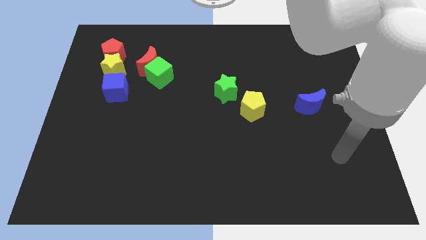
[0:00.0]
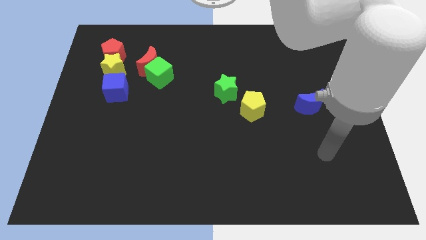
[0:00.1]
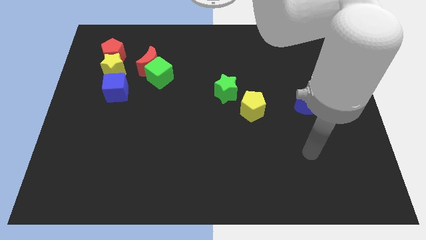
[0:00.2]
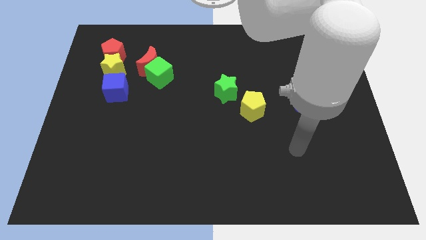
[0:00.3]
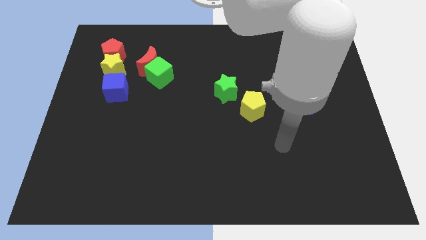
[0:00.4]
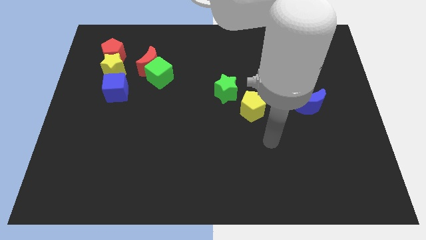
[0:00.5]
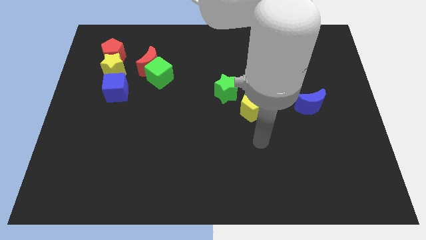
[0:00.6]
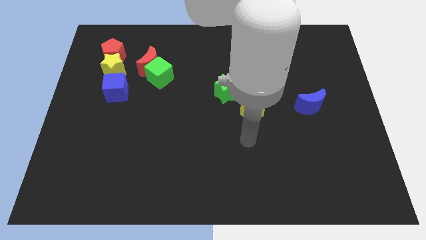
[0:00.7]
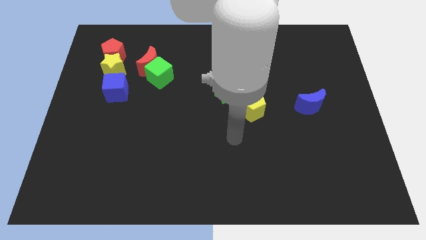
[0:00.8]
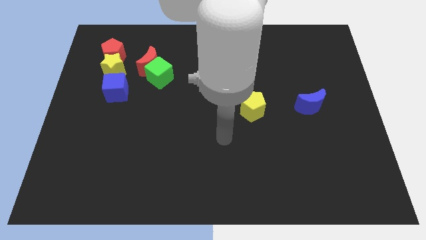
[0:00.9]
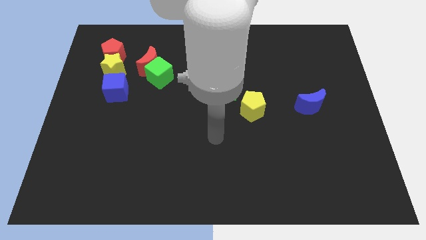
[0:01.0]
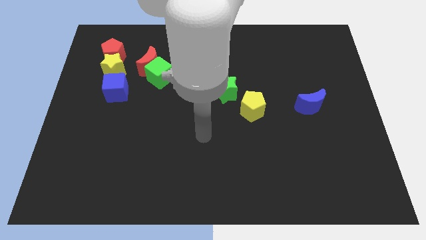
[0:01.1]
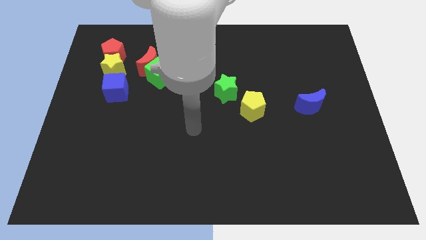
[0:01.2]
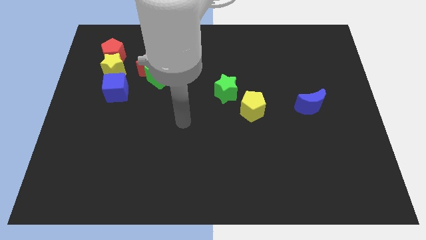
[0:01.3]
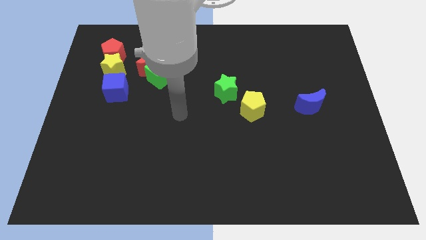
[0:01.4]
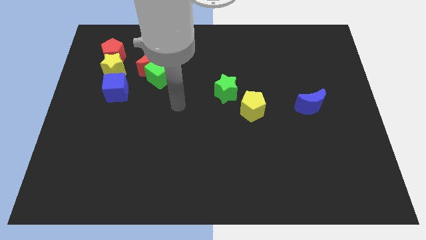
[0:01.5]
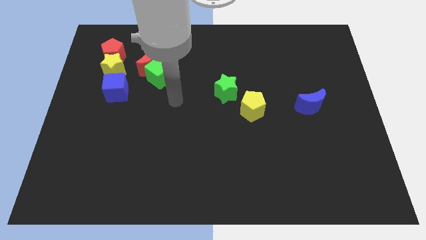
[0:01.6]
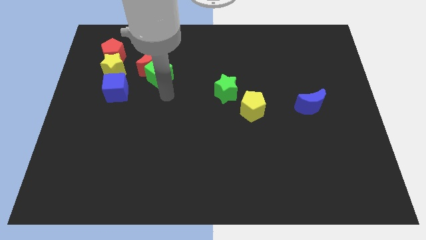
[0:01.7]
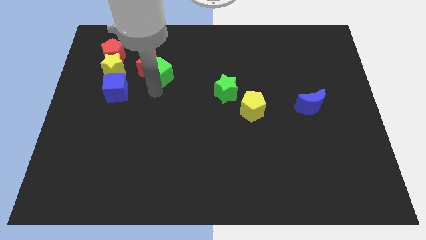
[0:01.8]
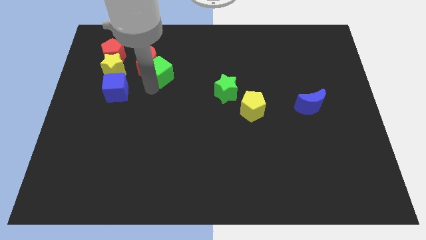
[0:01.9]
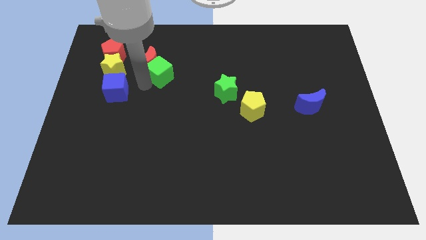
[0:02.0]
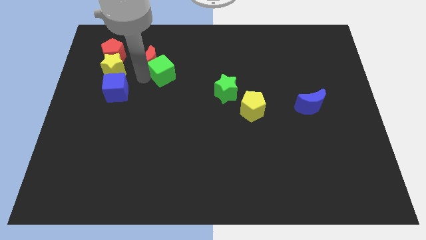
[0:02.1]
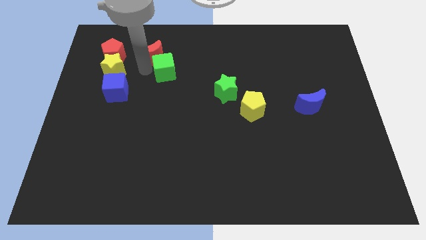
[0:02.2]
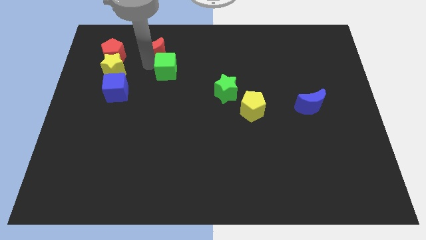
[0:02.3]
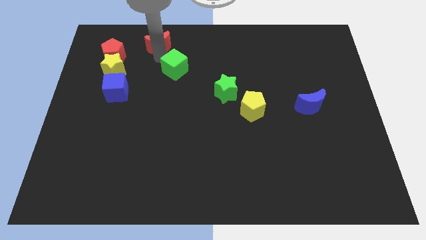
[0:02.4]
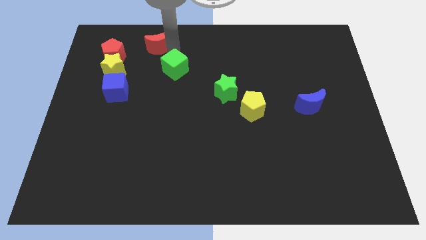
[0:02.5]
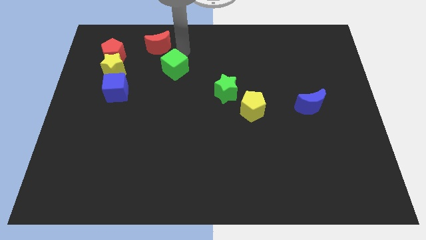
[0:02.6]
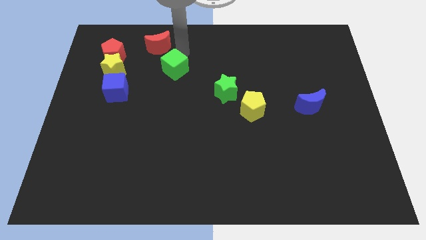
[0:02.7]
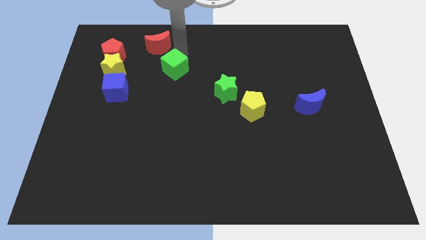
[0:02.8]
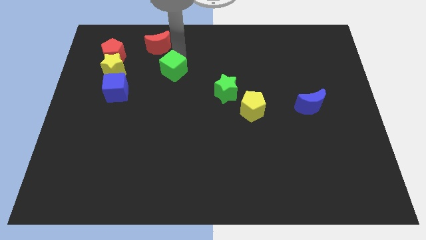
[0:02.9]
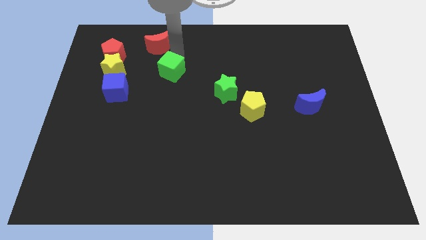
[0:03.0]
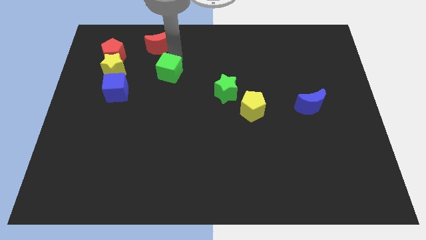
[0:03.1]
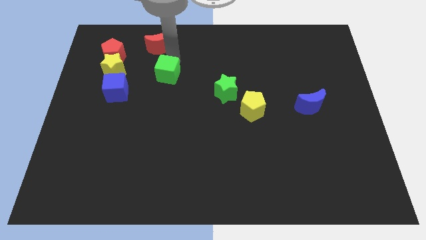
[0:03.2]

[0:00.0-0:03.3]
pull the green cube apart from the red moon

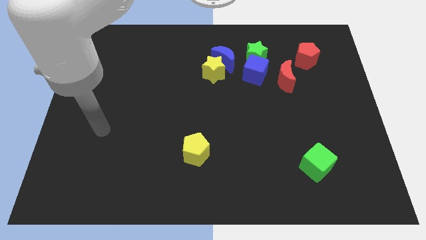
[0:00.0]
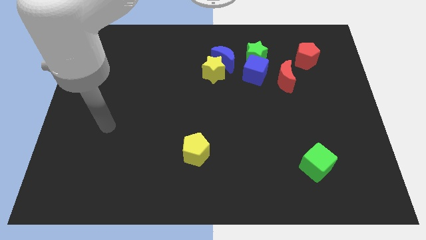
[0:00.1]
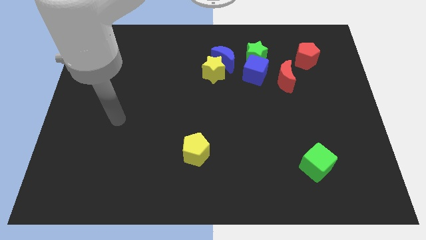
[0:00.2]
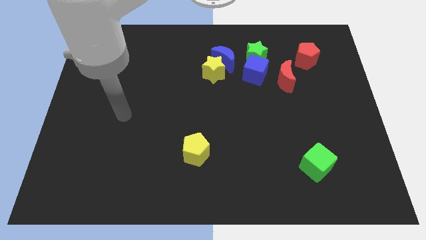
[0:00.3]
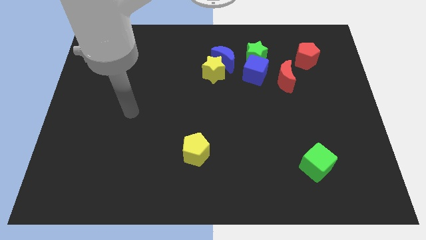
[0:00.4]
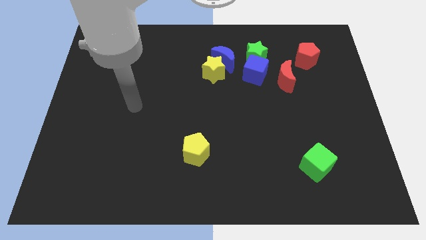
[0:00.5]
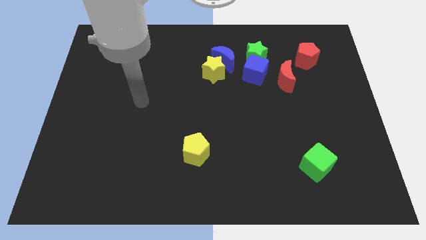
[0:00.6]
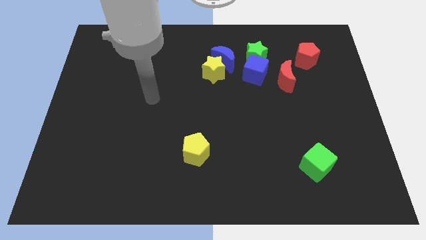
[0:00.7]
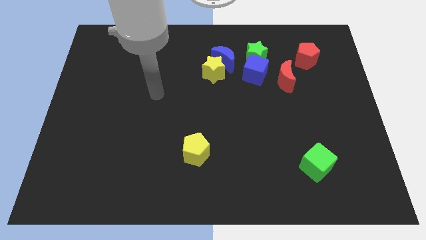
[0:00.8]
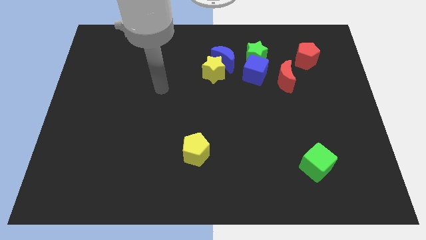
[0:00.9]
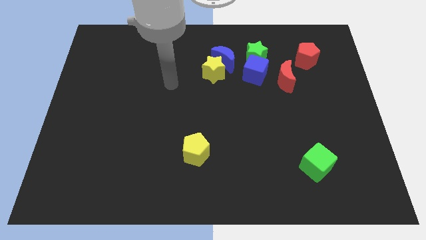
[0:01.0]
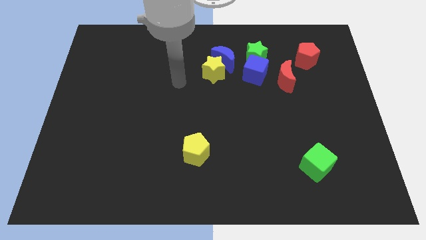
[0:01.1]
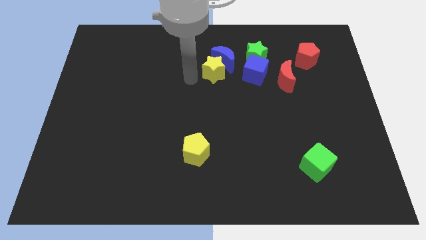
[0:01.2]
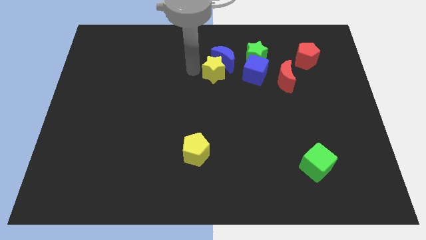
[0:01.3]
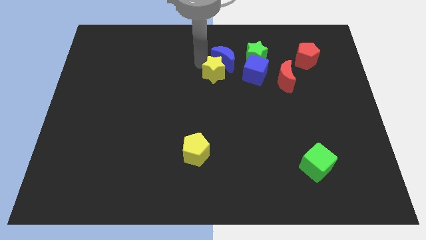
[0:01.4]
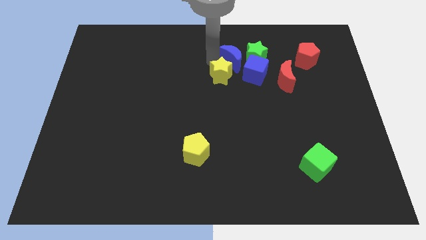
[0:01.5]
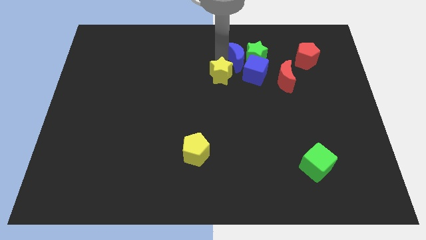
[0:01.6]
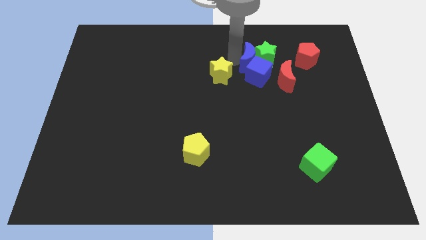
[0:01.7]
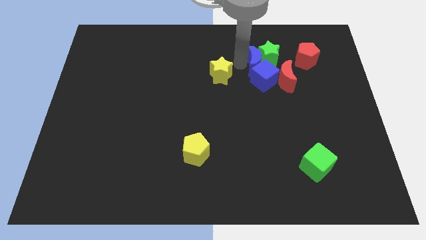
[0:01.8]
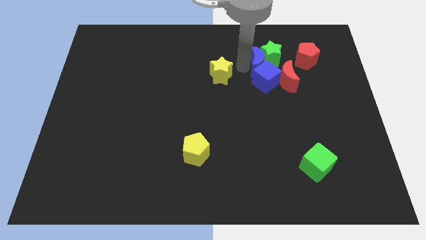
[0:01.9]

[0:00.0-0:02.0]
move the yellow star away from the blue moon

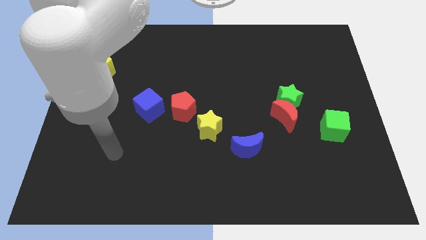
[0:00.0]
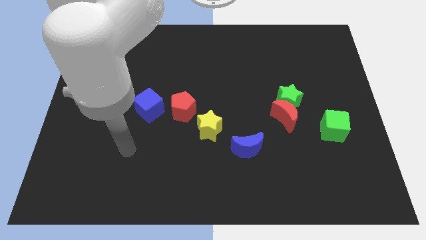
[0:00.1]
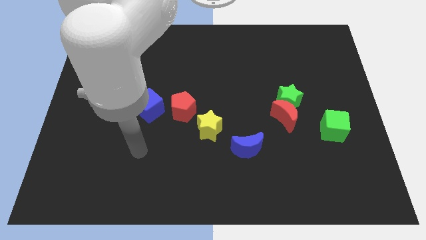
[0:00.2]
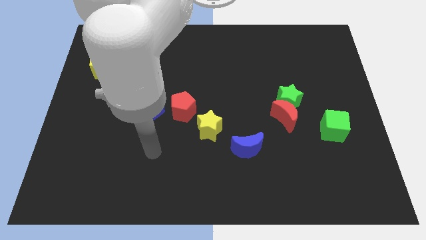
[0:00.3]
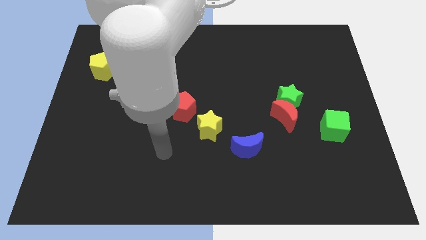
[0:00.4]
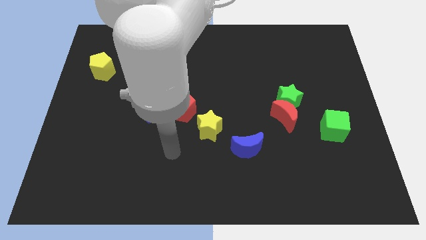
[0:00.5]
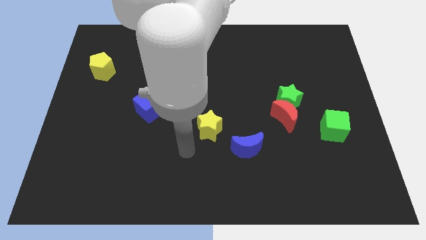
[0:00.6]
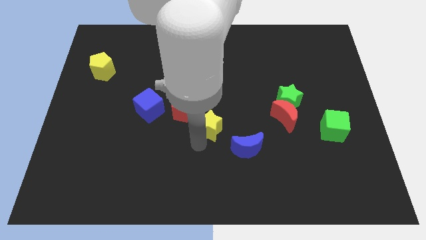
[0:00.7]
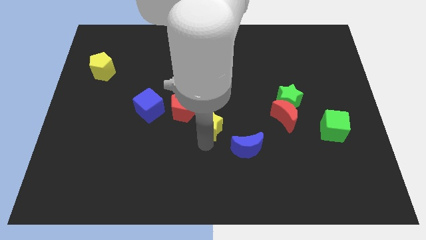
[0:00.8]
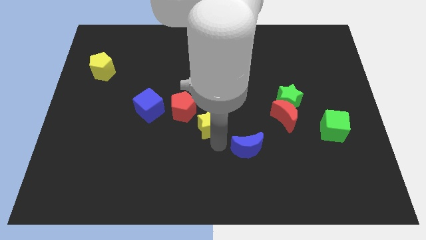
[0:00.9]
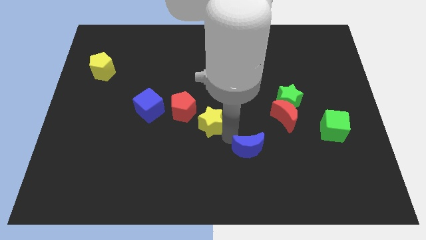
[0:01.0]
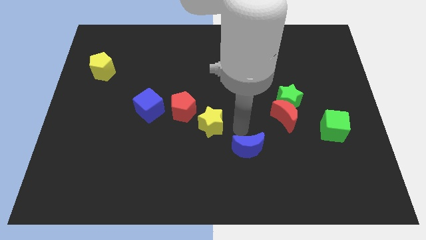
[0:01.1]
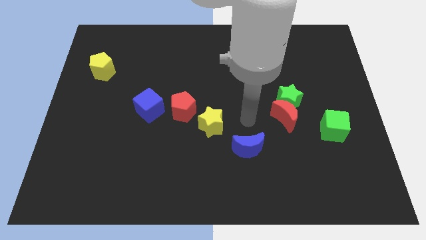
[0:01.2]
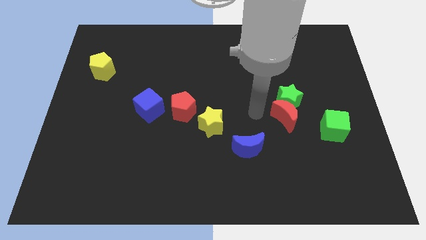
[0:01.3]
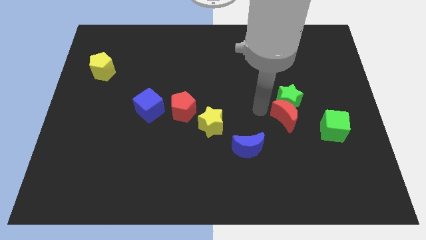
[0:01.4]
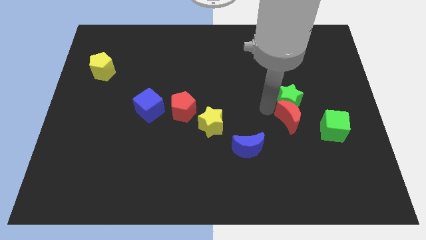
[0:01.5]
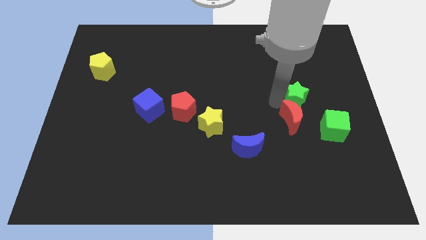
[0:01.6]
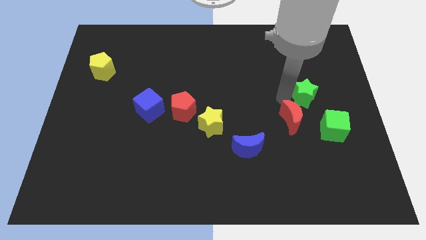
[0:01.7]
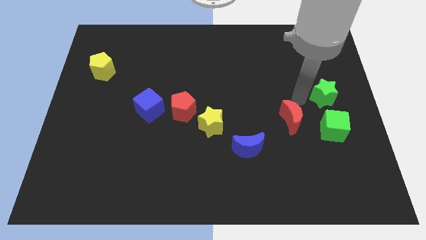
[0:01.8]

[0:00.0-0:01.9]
move the red moon away from the green star

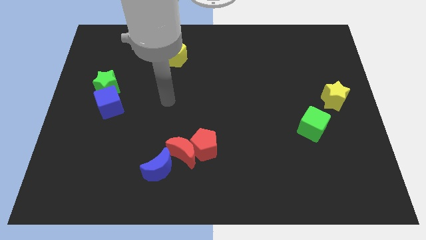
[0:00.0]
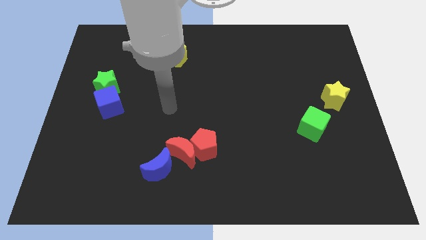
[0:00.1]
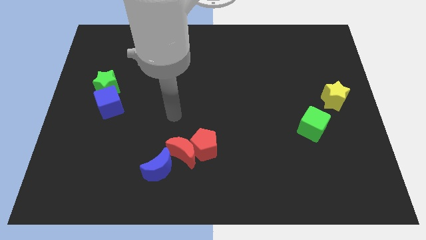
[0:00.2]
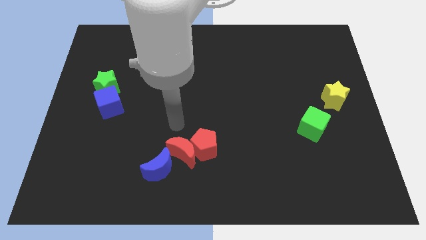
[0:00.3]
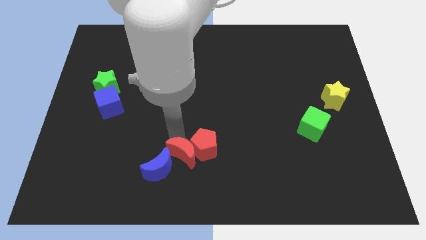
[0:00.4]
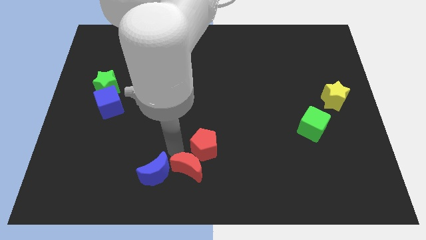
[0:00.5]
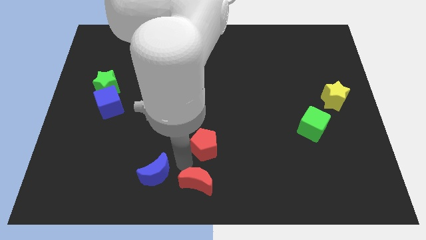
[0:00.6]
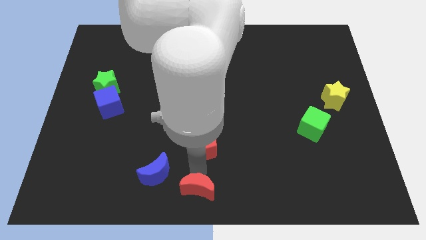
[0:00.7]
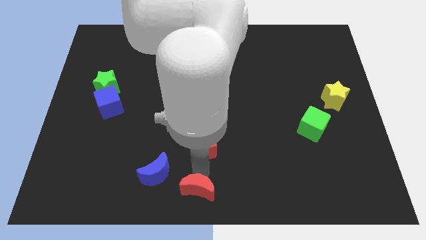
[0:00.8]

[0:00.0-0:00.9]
separate the red pentagon from the red moon

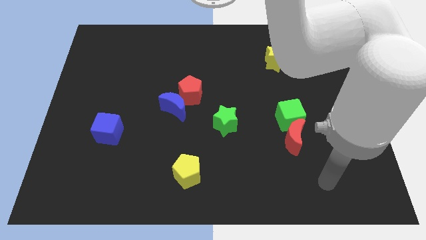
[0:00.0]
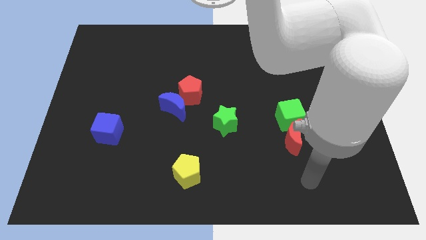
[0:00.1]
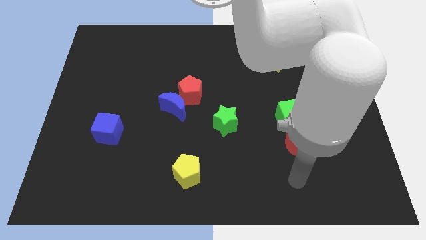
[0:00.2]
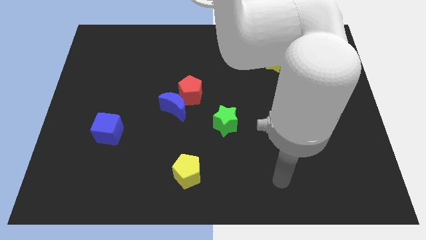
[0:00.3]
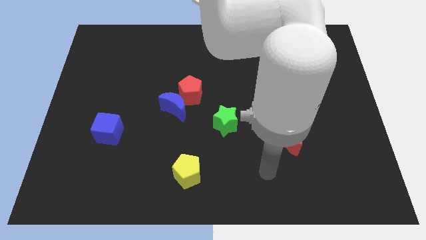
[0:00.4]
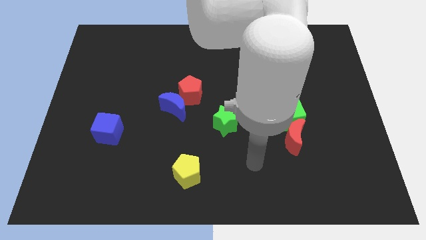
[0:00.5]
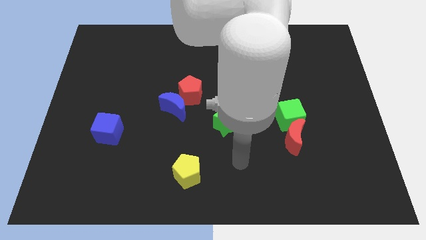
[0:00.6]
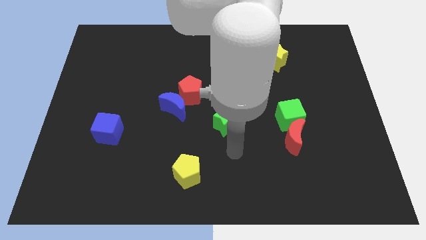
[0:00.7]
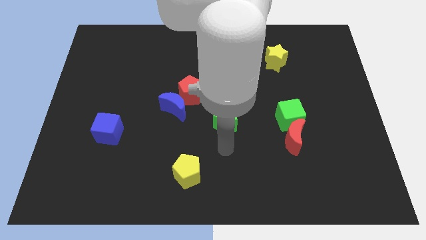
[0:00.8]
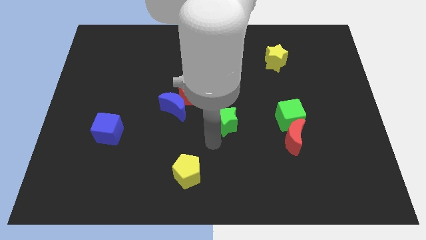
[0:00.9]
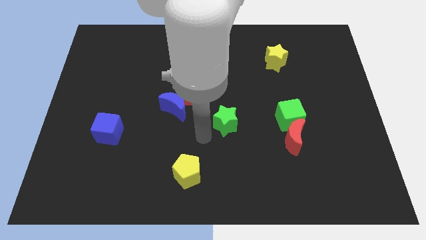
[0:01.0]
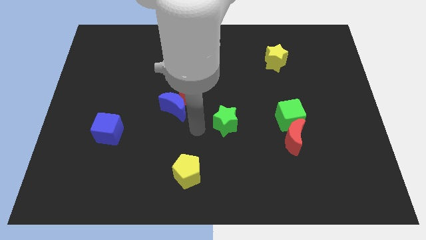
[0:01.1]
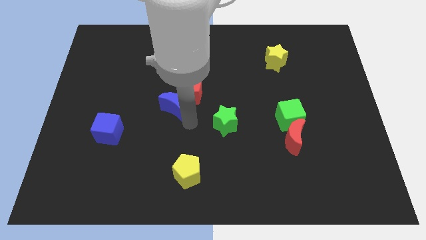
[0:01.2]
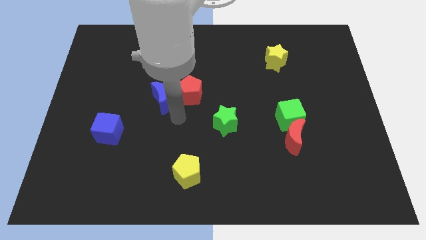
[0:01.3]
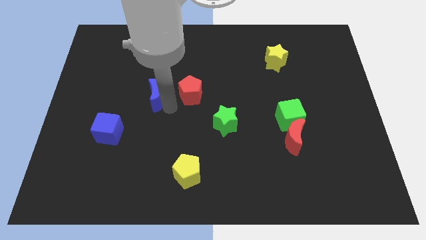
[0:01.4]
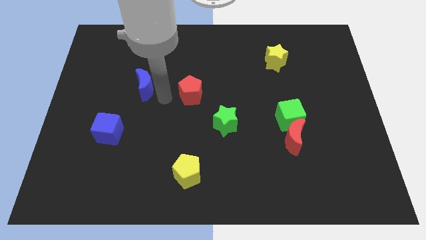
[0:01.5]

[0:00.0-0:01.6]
separate the red pentagon from the blue moon
